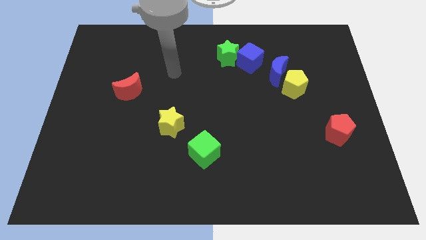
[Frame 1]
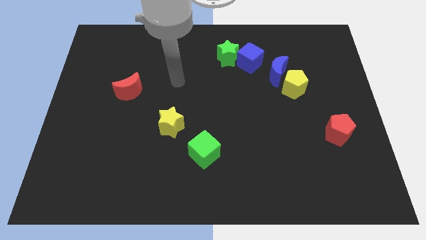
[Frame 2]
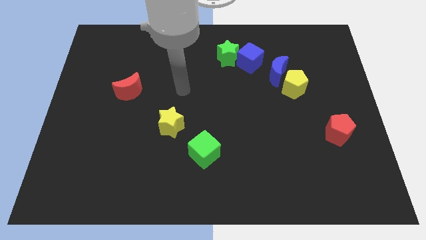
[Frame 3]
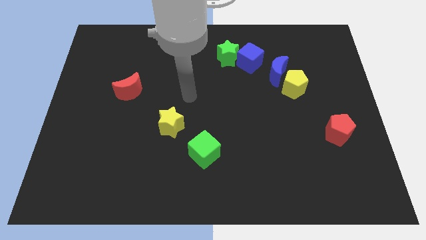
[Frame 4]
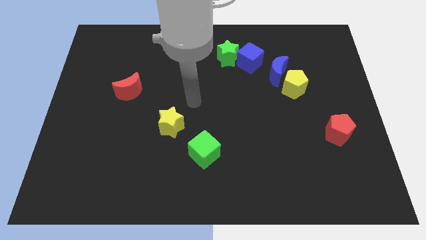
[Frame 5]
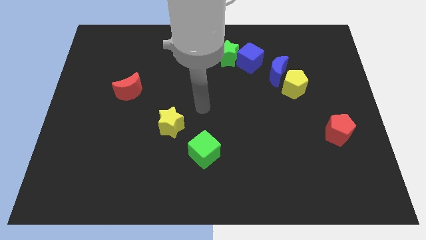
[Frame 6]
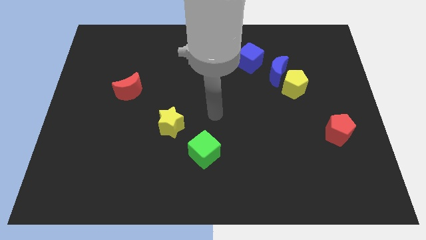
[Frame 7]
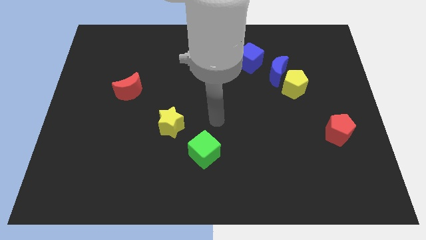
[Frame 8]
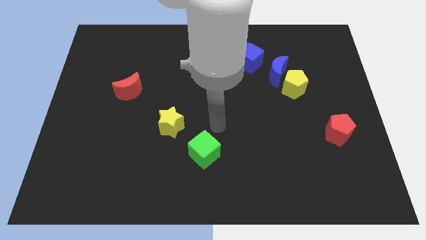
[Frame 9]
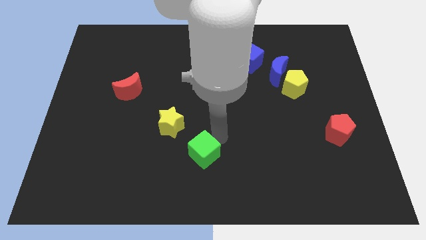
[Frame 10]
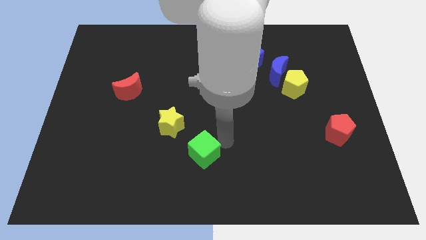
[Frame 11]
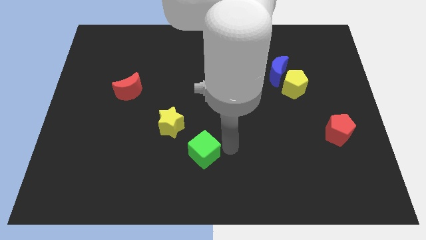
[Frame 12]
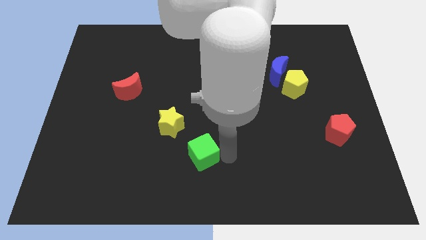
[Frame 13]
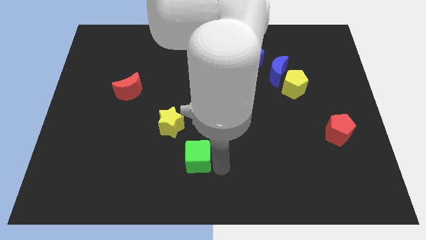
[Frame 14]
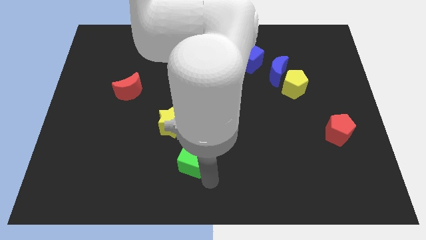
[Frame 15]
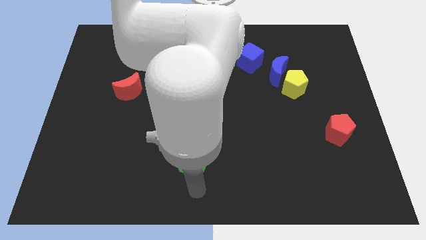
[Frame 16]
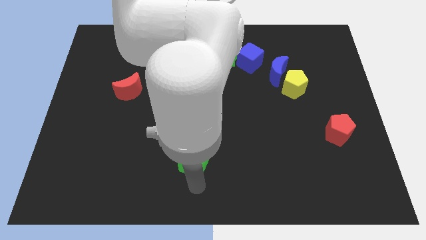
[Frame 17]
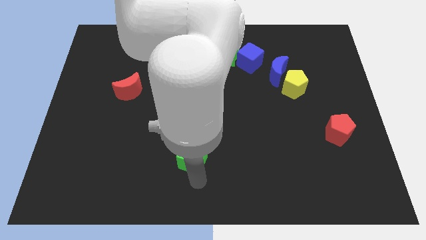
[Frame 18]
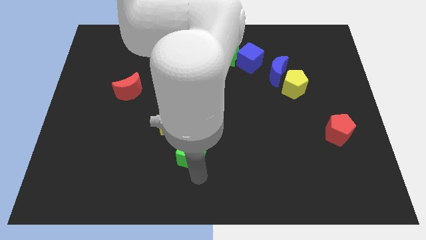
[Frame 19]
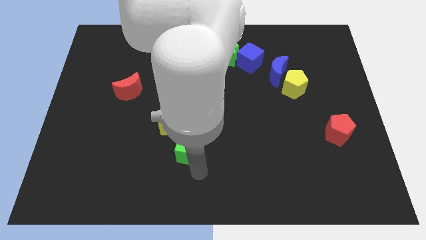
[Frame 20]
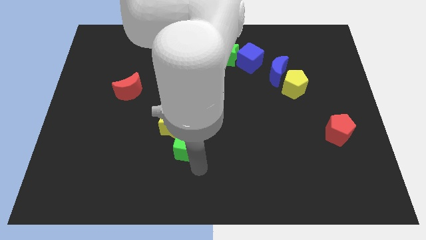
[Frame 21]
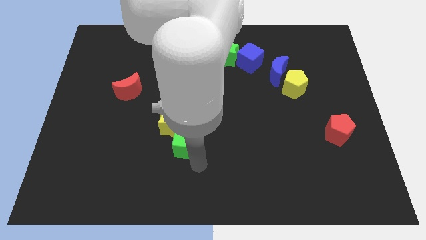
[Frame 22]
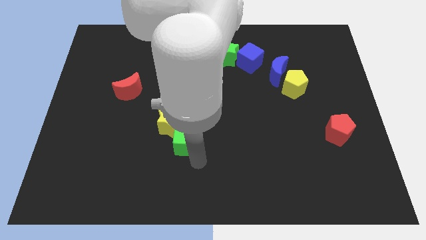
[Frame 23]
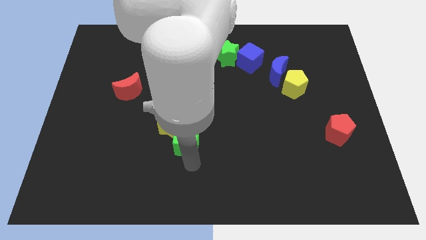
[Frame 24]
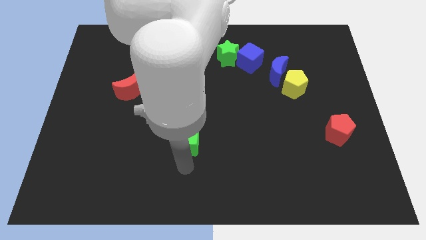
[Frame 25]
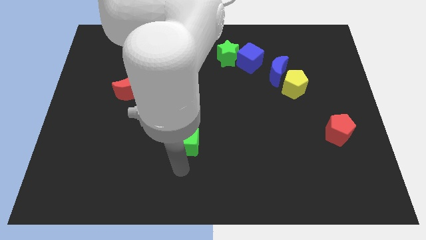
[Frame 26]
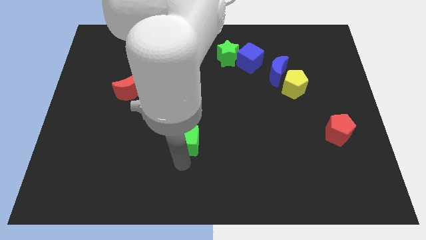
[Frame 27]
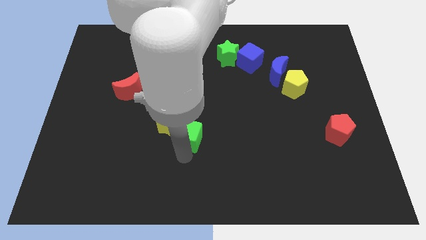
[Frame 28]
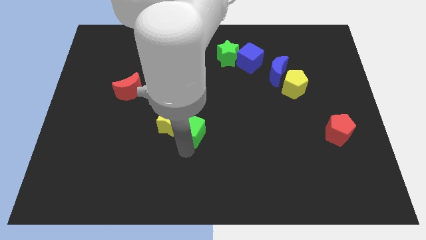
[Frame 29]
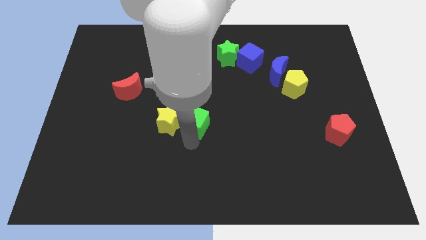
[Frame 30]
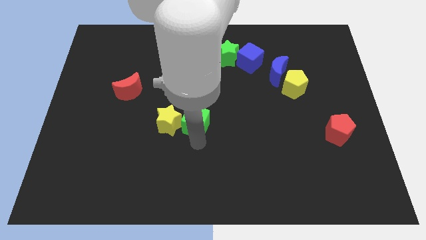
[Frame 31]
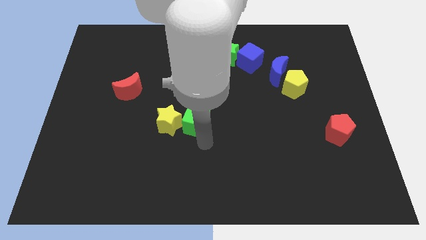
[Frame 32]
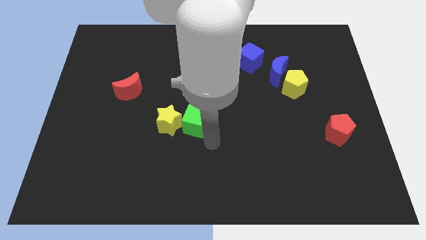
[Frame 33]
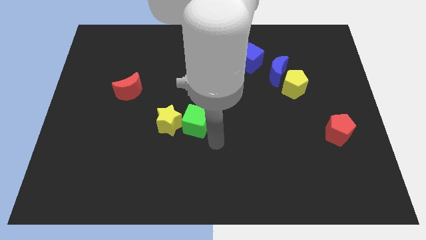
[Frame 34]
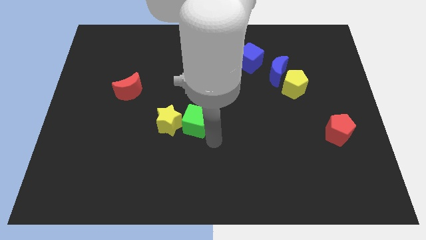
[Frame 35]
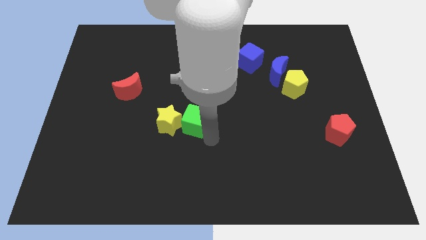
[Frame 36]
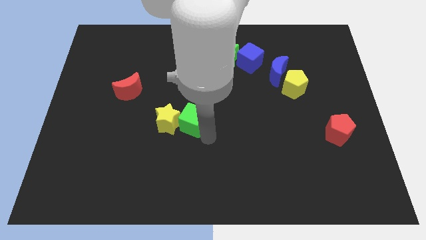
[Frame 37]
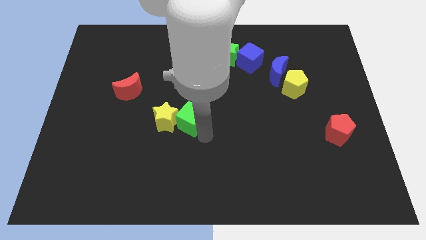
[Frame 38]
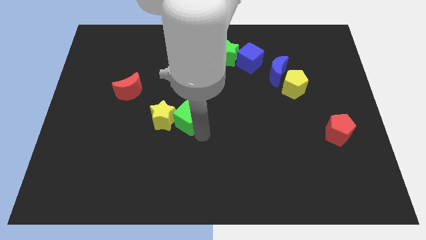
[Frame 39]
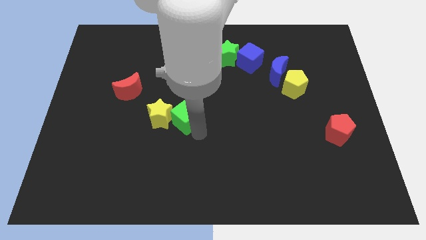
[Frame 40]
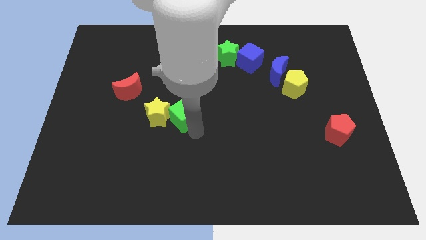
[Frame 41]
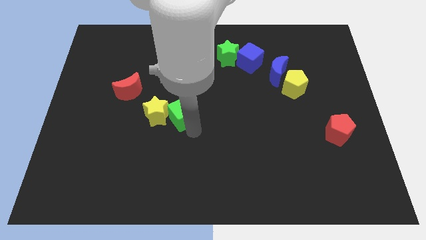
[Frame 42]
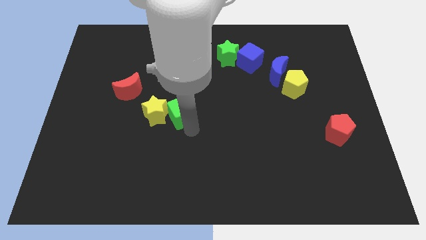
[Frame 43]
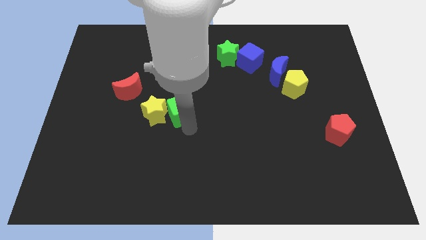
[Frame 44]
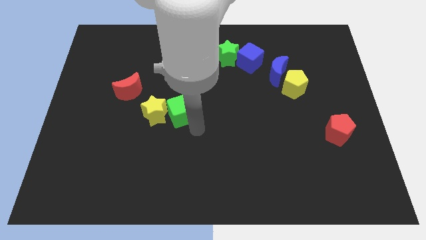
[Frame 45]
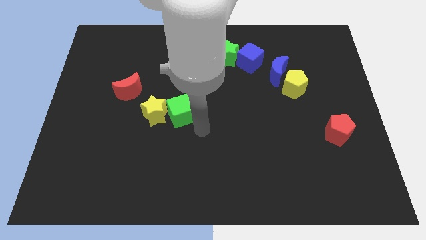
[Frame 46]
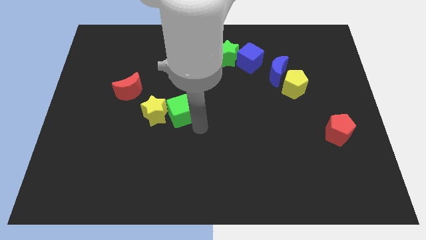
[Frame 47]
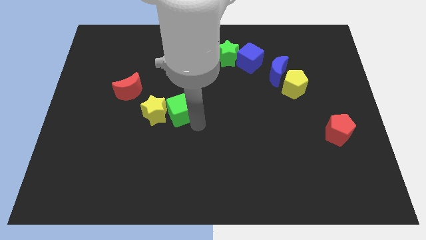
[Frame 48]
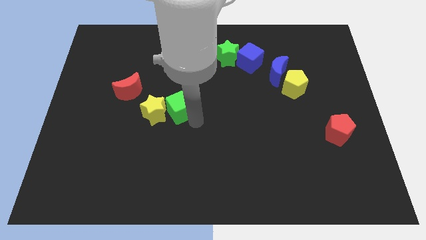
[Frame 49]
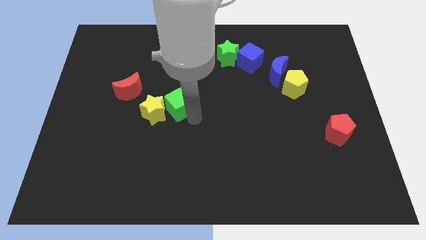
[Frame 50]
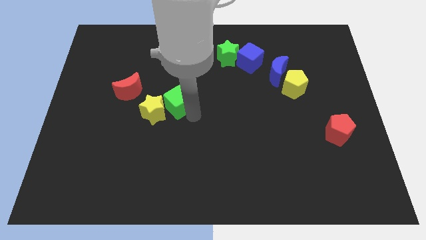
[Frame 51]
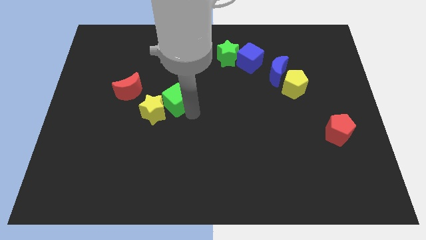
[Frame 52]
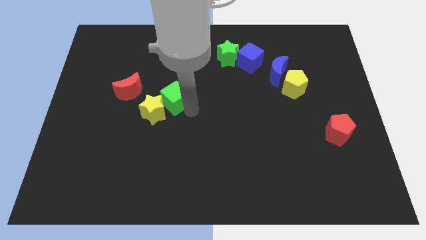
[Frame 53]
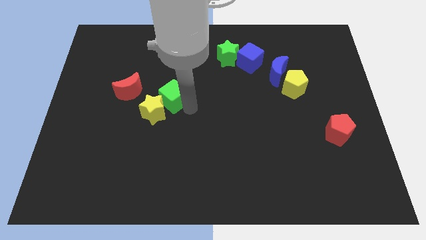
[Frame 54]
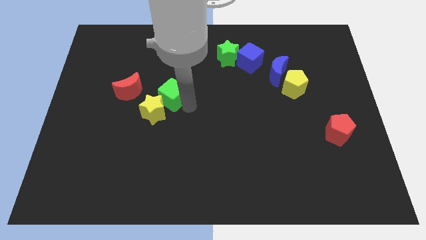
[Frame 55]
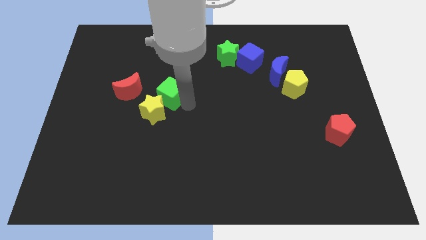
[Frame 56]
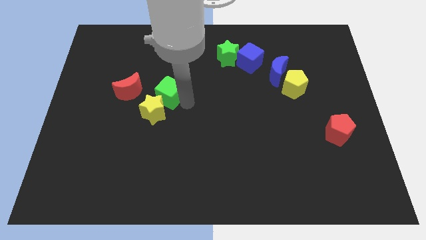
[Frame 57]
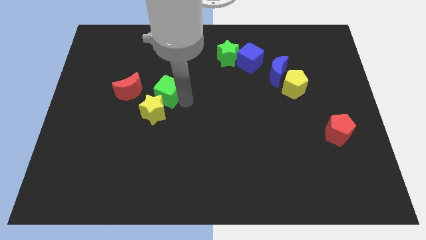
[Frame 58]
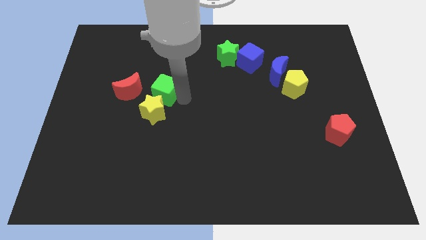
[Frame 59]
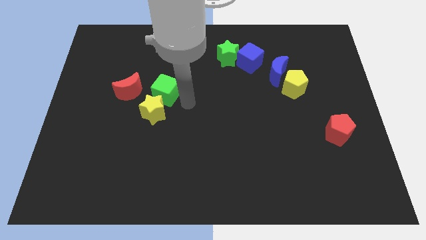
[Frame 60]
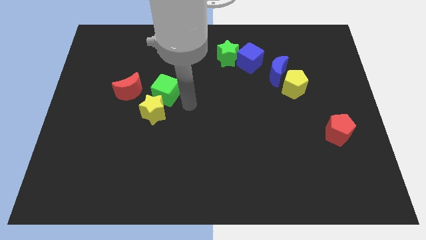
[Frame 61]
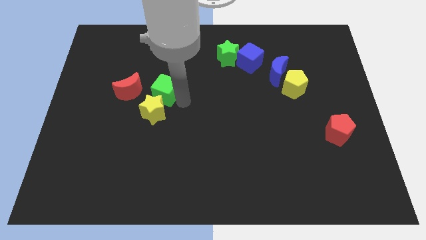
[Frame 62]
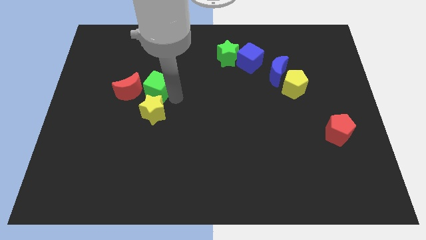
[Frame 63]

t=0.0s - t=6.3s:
push the green cube upwards and then left

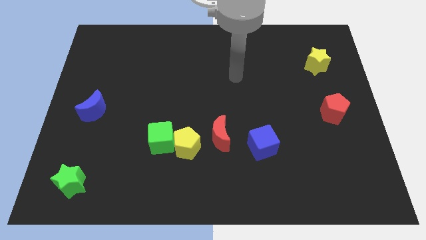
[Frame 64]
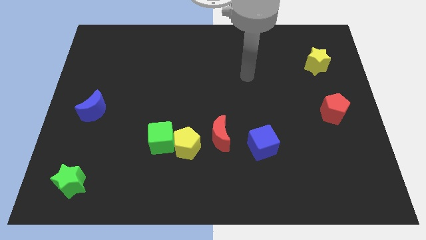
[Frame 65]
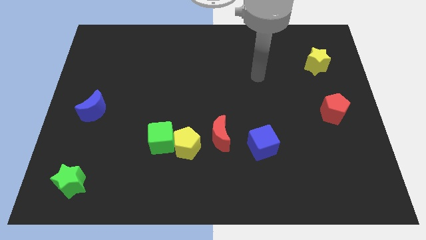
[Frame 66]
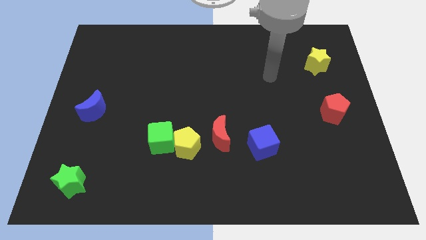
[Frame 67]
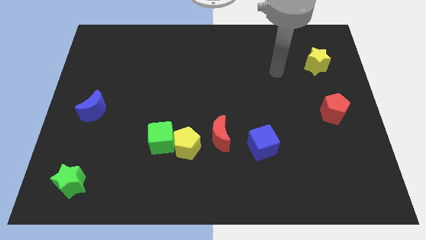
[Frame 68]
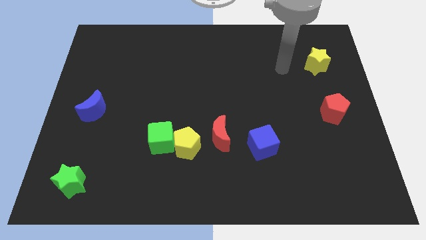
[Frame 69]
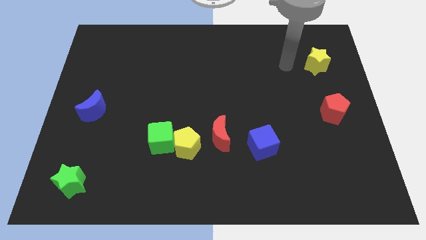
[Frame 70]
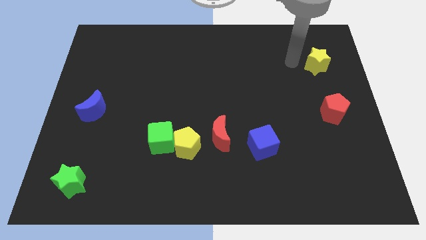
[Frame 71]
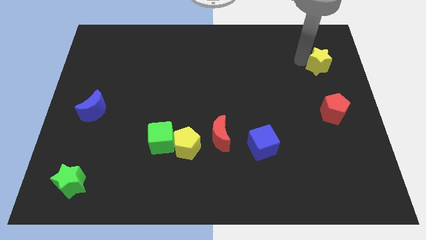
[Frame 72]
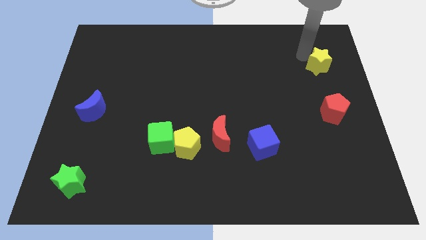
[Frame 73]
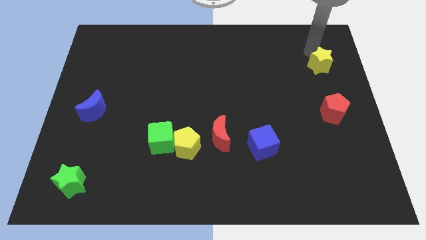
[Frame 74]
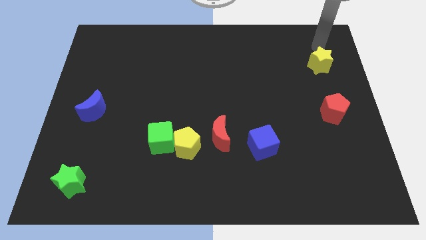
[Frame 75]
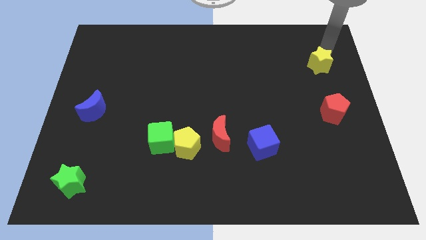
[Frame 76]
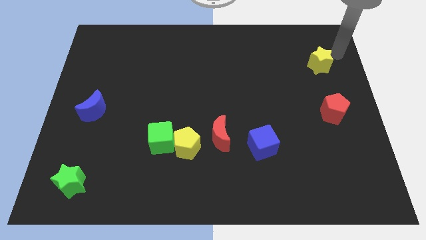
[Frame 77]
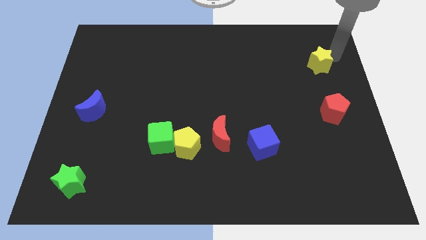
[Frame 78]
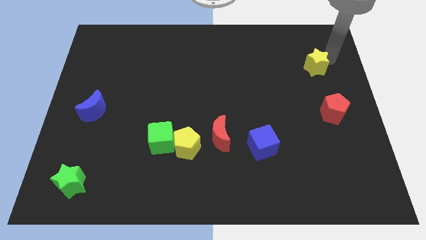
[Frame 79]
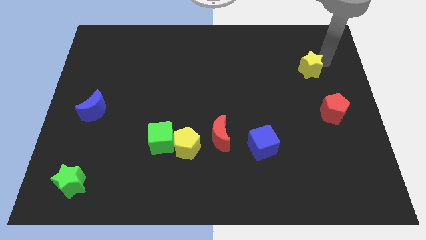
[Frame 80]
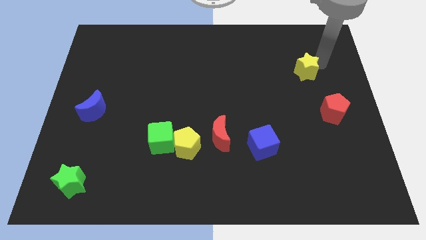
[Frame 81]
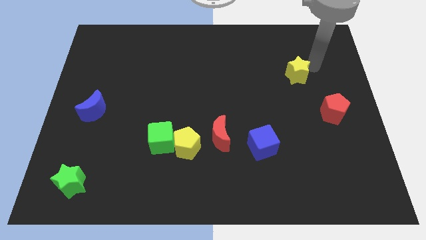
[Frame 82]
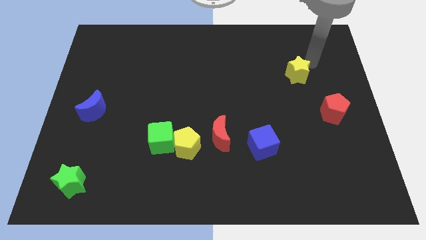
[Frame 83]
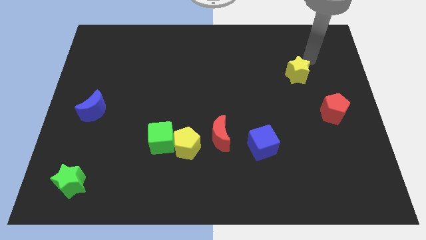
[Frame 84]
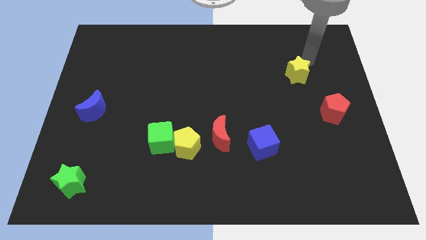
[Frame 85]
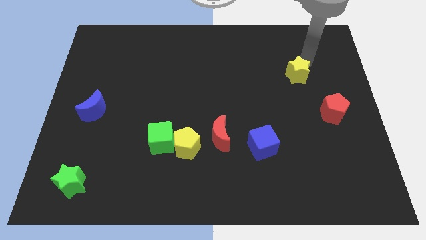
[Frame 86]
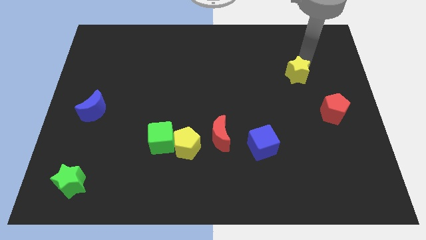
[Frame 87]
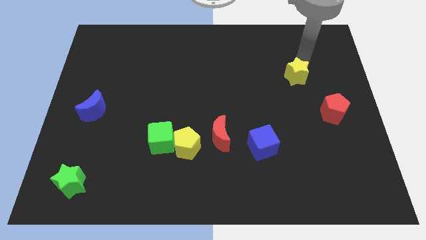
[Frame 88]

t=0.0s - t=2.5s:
slightly move the yellow star downwards and then to the left
